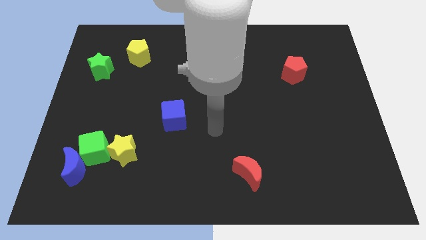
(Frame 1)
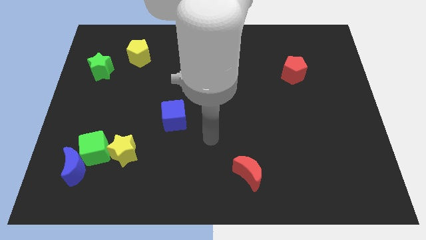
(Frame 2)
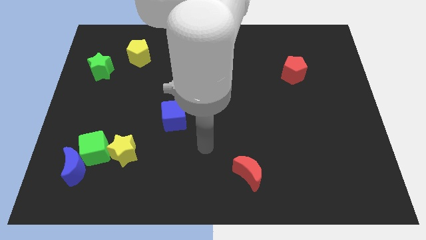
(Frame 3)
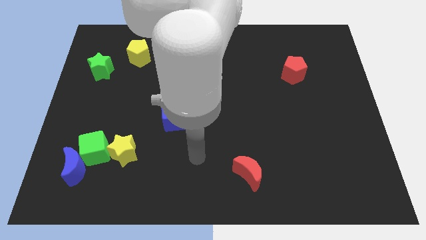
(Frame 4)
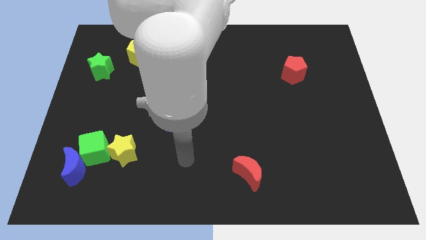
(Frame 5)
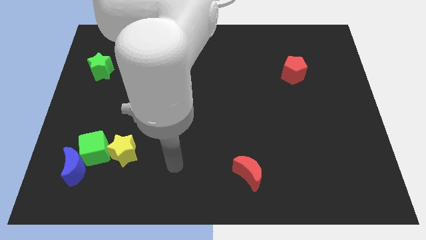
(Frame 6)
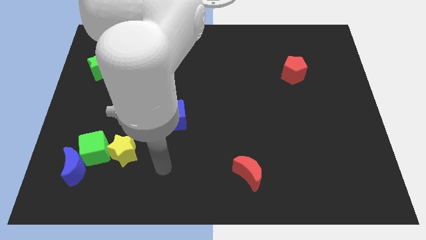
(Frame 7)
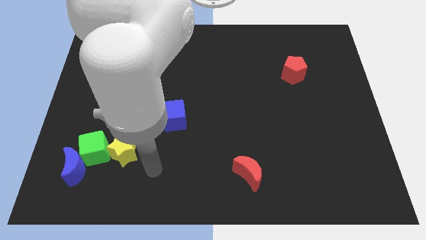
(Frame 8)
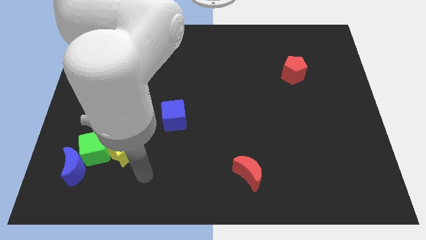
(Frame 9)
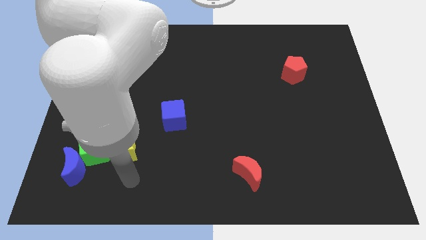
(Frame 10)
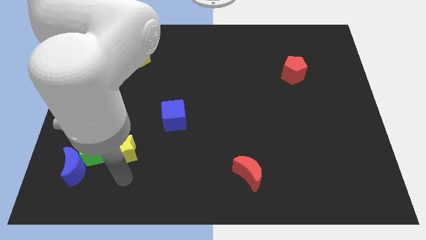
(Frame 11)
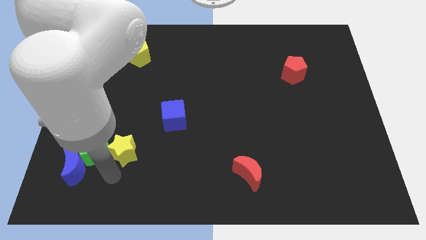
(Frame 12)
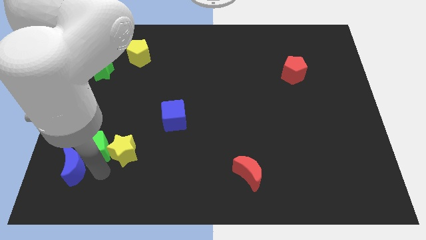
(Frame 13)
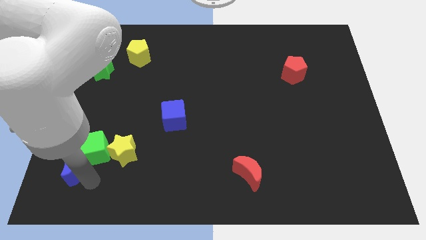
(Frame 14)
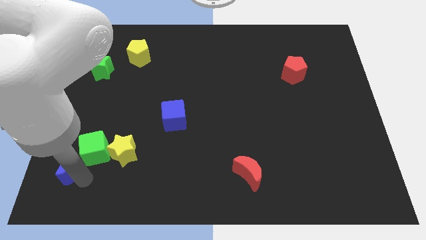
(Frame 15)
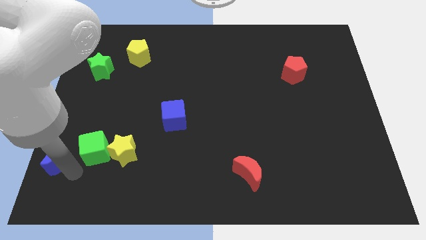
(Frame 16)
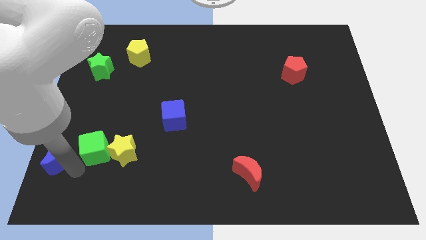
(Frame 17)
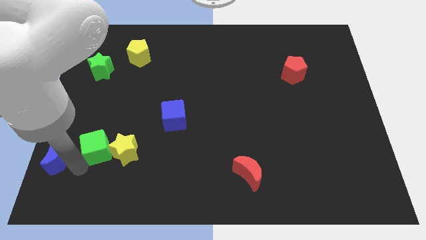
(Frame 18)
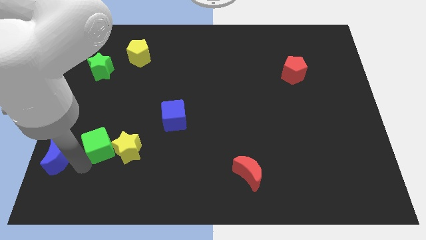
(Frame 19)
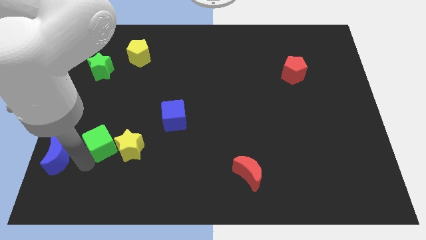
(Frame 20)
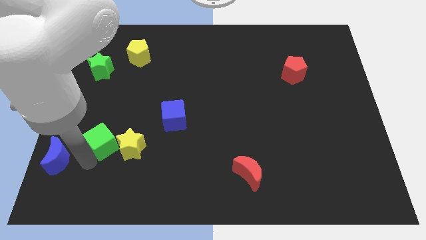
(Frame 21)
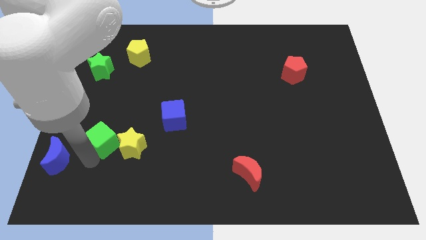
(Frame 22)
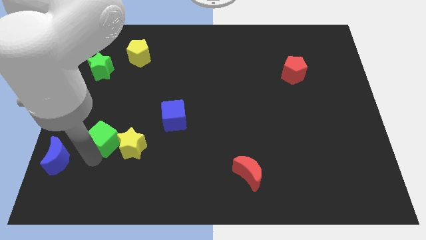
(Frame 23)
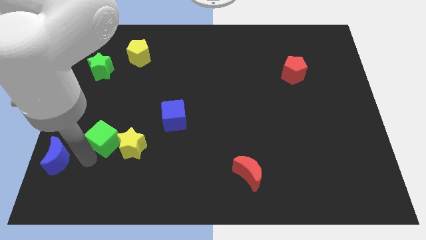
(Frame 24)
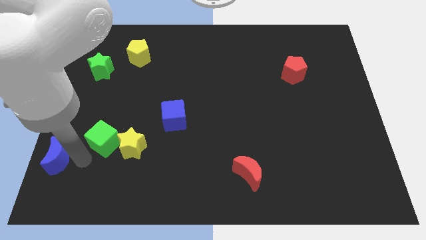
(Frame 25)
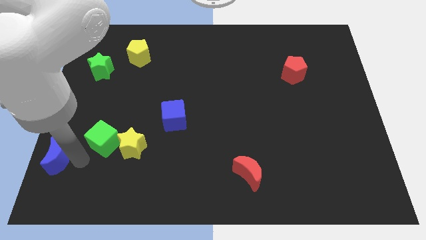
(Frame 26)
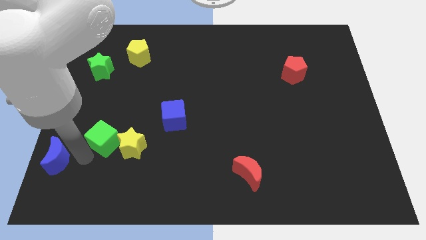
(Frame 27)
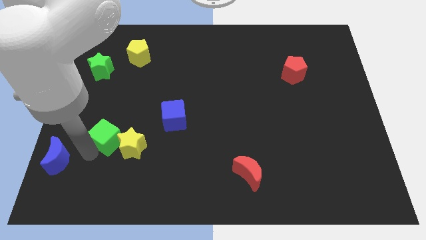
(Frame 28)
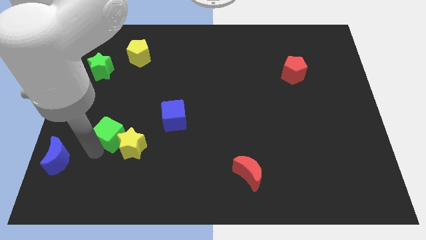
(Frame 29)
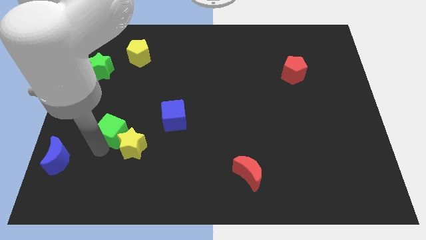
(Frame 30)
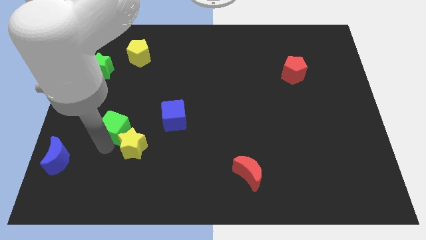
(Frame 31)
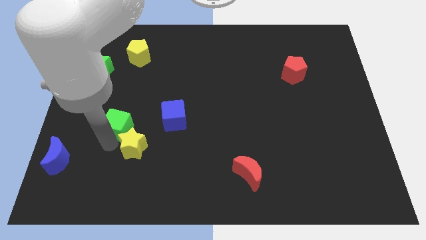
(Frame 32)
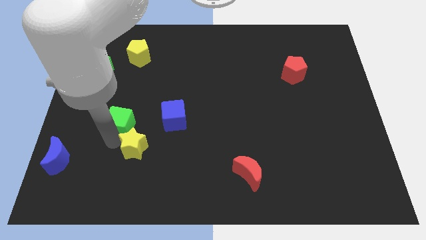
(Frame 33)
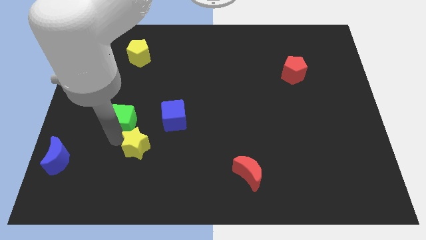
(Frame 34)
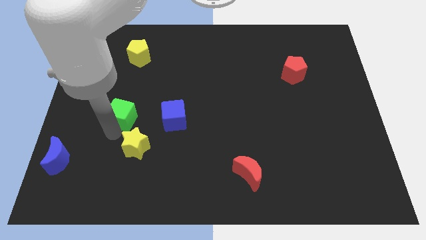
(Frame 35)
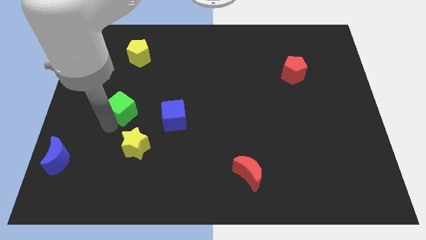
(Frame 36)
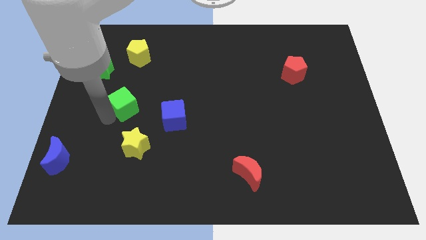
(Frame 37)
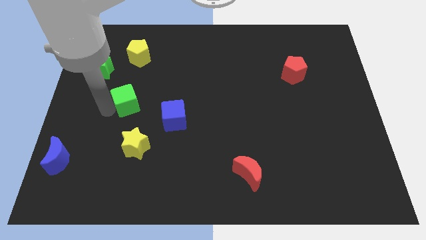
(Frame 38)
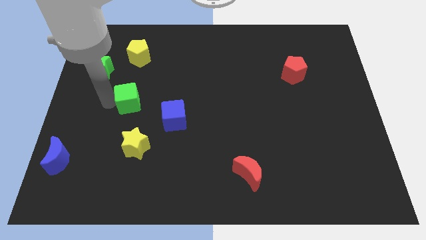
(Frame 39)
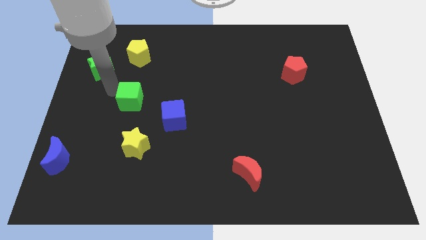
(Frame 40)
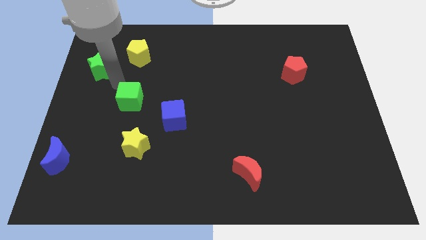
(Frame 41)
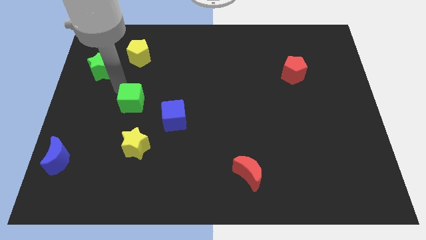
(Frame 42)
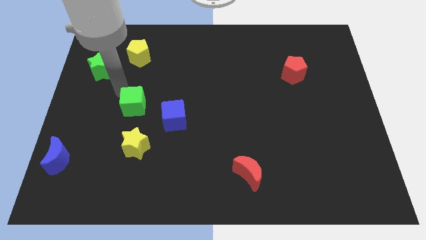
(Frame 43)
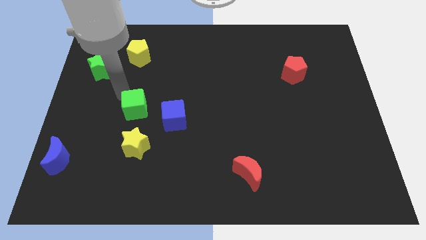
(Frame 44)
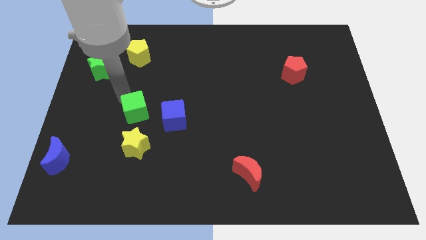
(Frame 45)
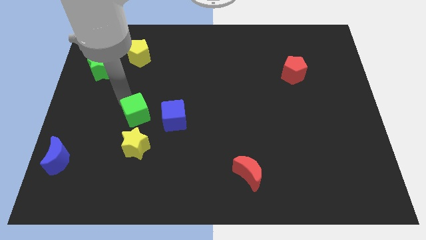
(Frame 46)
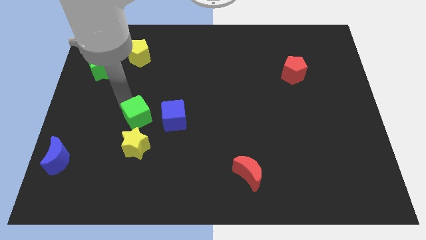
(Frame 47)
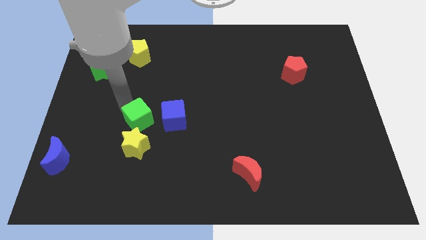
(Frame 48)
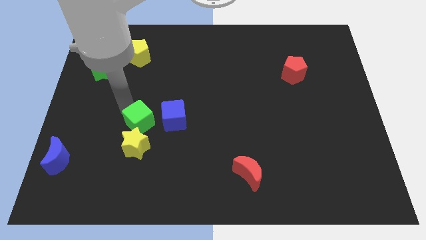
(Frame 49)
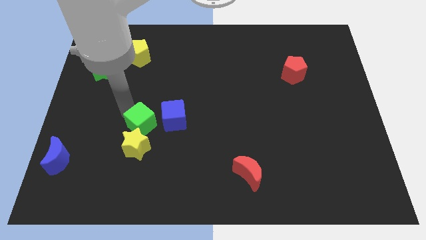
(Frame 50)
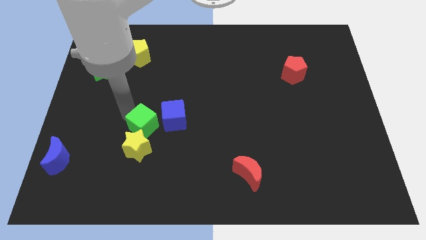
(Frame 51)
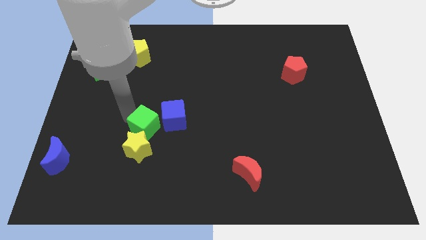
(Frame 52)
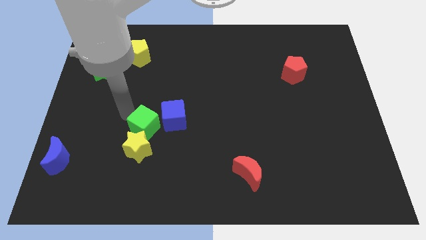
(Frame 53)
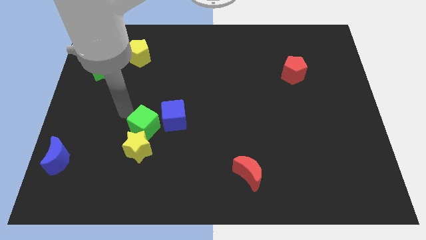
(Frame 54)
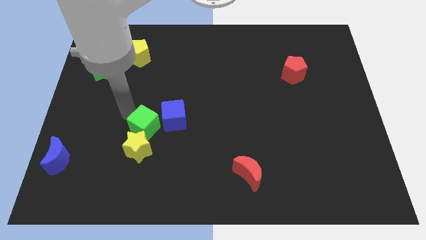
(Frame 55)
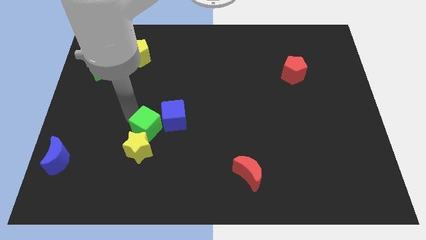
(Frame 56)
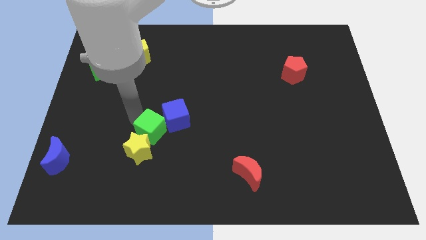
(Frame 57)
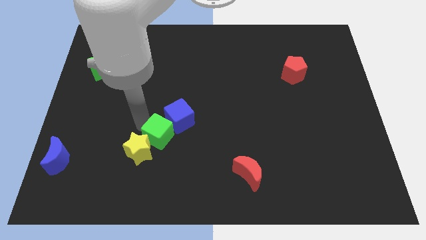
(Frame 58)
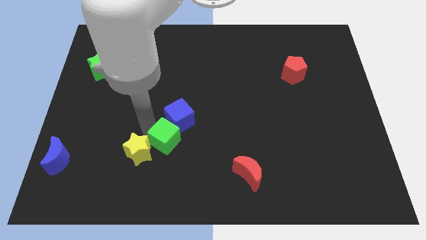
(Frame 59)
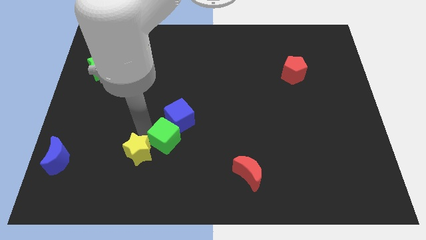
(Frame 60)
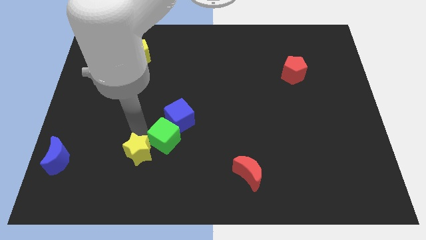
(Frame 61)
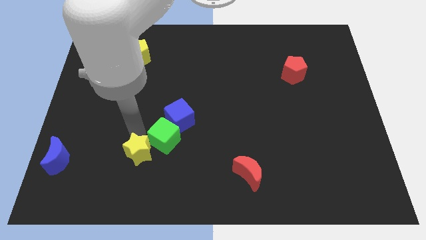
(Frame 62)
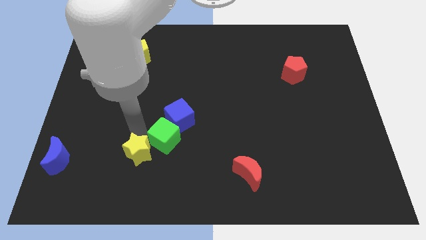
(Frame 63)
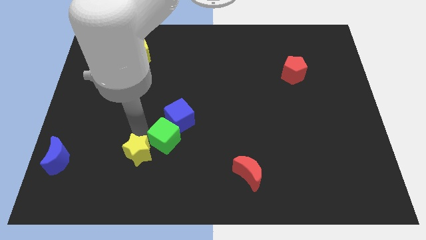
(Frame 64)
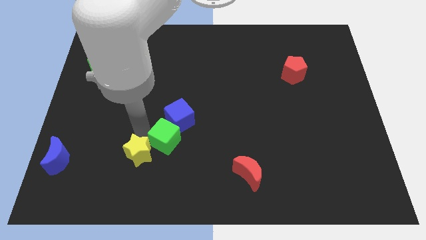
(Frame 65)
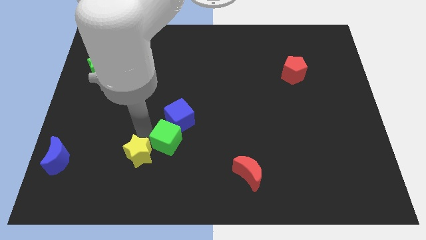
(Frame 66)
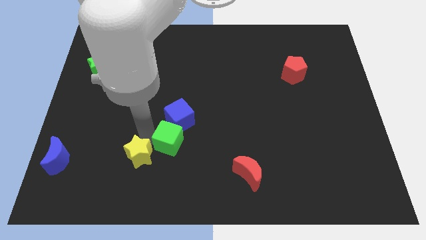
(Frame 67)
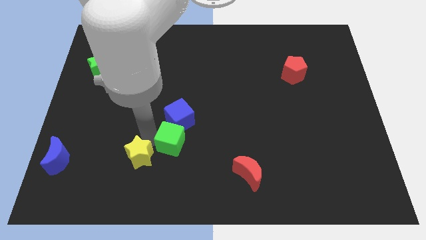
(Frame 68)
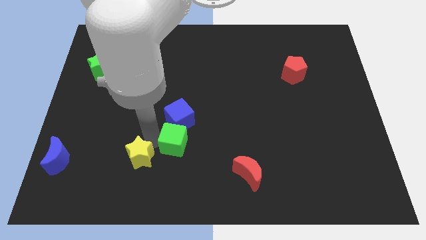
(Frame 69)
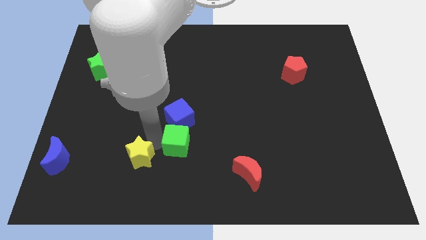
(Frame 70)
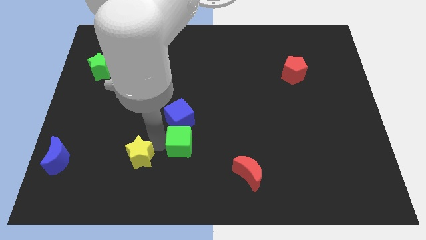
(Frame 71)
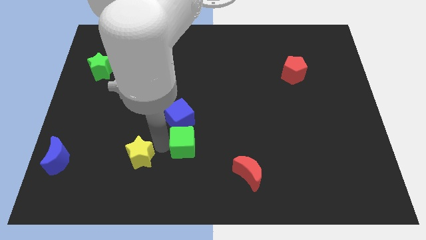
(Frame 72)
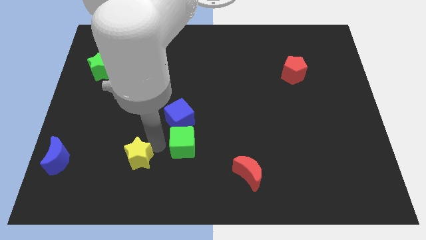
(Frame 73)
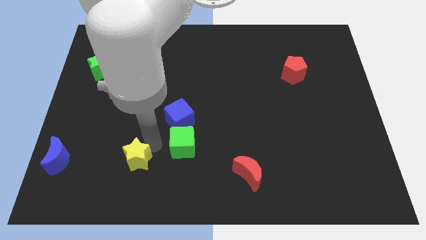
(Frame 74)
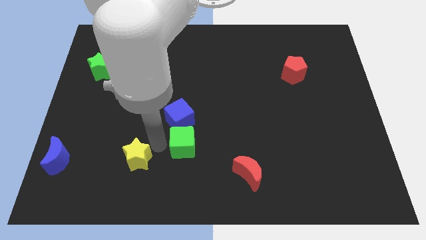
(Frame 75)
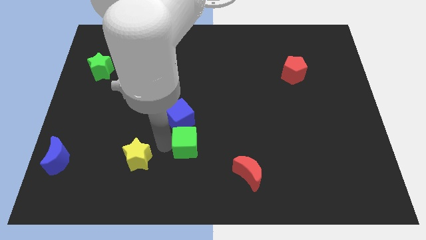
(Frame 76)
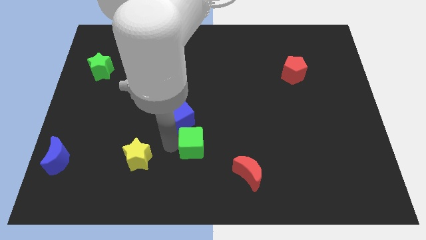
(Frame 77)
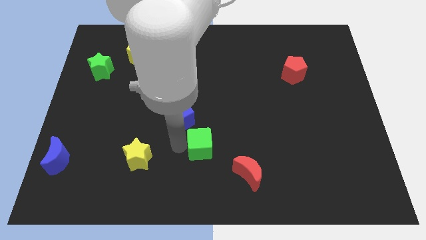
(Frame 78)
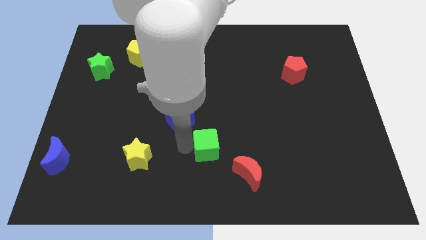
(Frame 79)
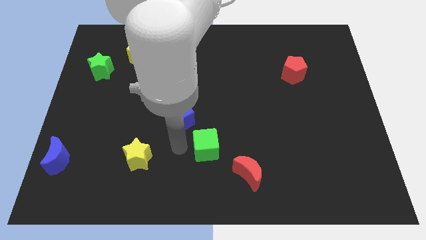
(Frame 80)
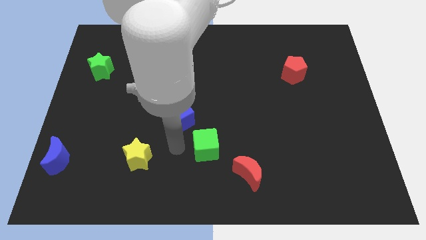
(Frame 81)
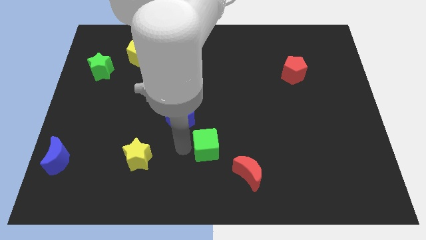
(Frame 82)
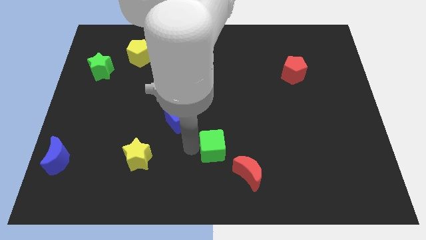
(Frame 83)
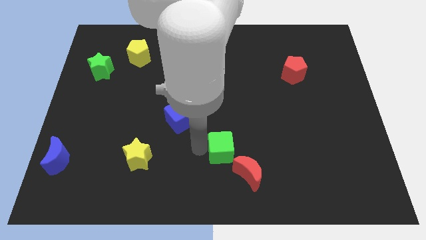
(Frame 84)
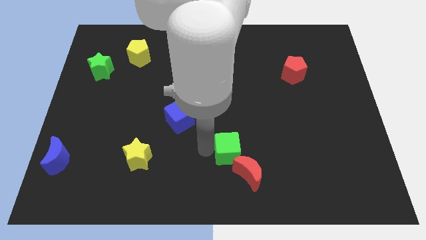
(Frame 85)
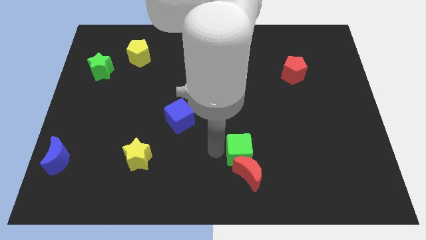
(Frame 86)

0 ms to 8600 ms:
push the green cube to the top right of the red moon
